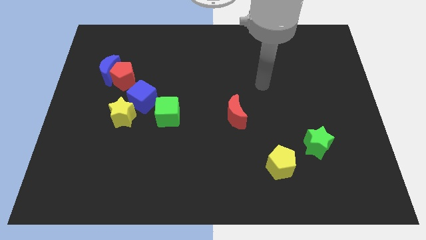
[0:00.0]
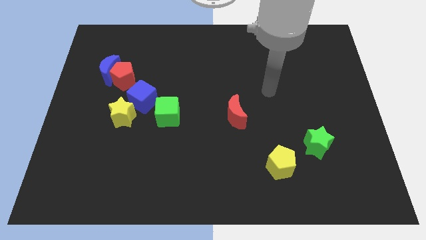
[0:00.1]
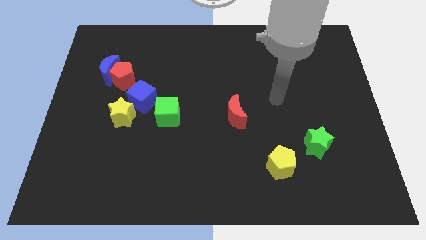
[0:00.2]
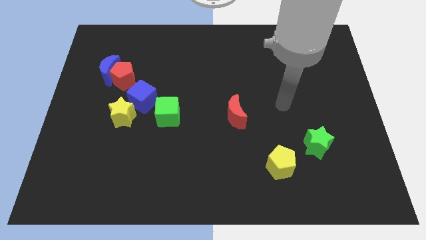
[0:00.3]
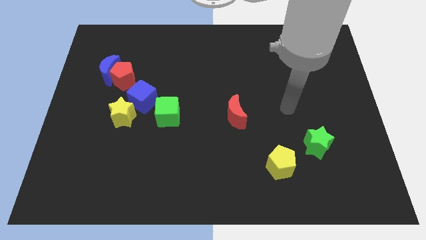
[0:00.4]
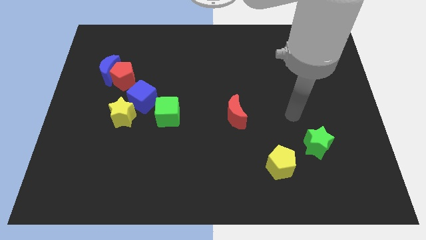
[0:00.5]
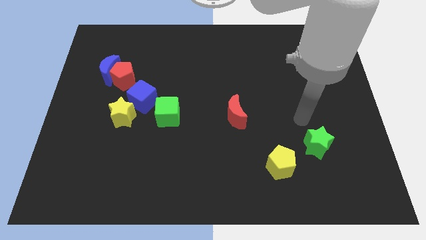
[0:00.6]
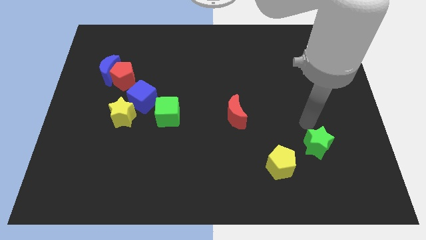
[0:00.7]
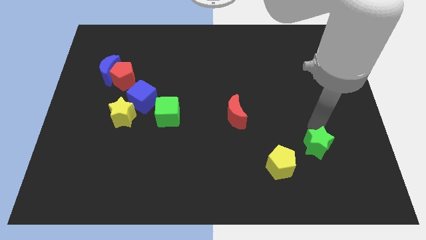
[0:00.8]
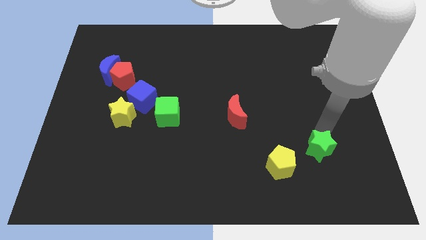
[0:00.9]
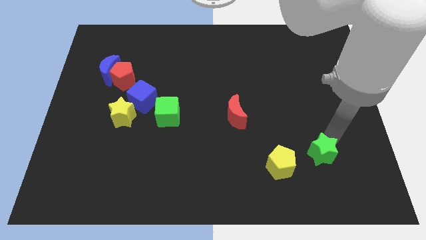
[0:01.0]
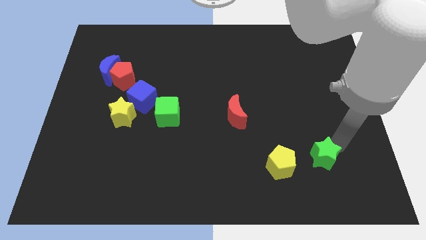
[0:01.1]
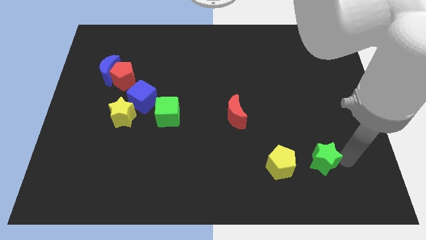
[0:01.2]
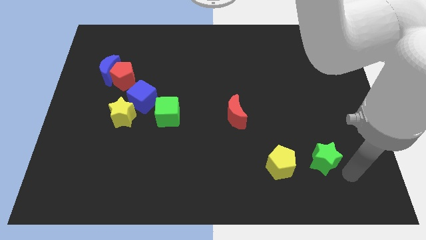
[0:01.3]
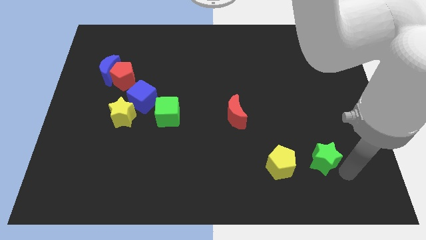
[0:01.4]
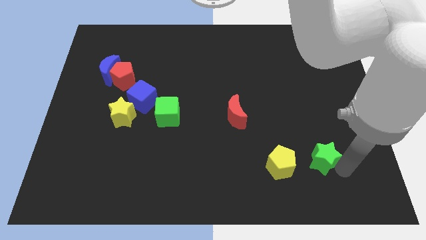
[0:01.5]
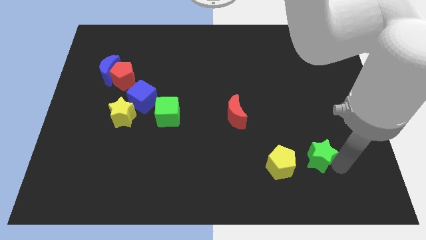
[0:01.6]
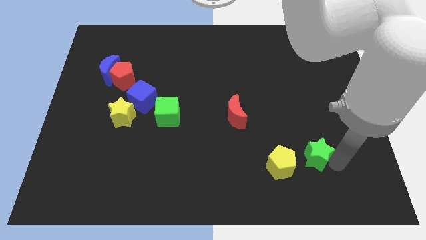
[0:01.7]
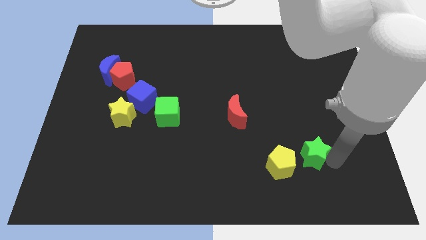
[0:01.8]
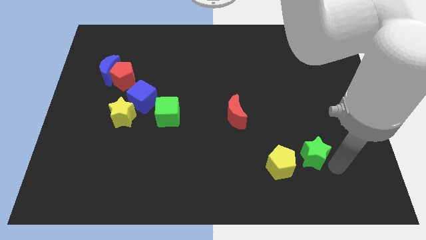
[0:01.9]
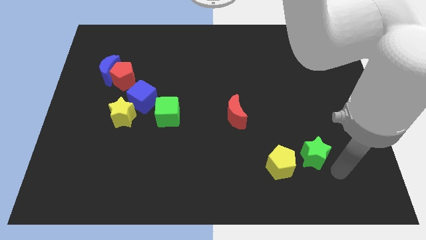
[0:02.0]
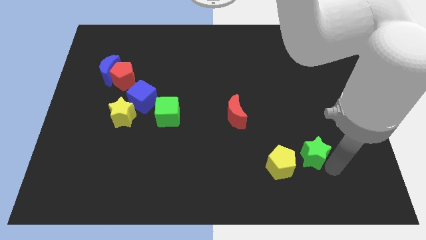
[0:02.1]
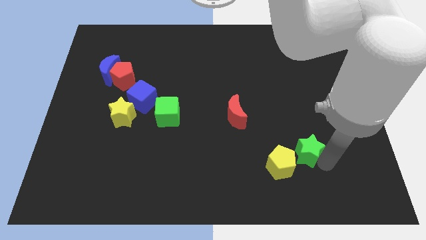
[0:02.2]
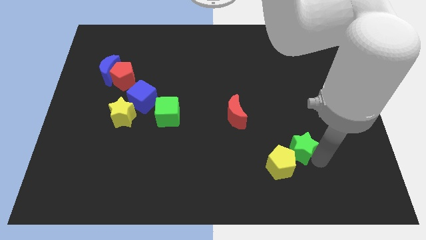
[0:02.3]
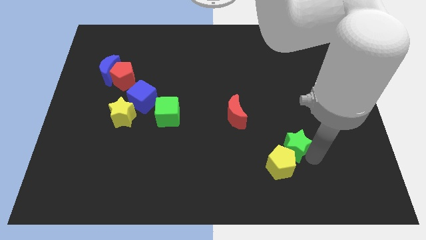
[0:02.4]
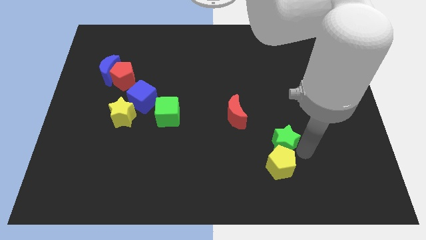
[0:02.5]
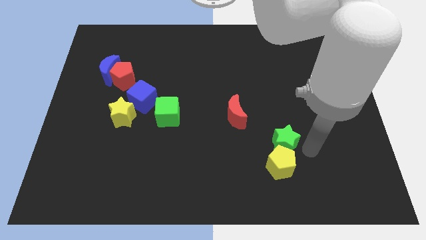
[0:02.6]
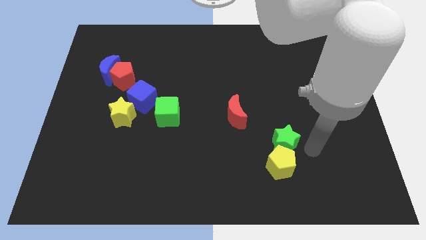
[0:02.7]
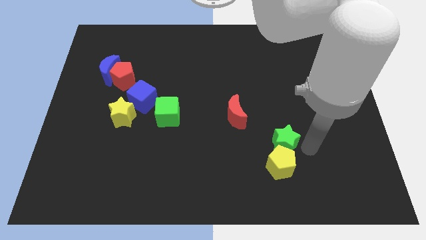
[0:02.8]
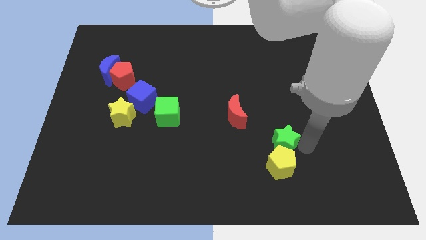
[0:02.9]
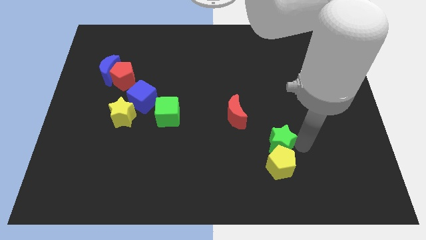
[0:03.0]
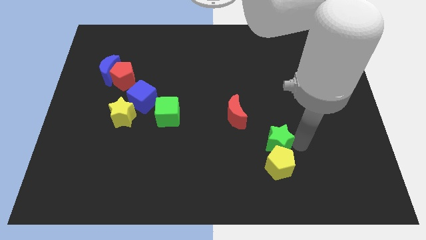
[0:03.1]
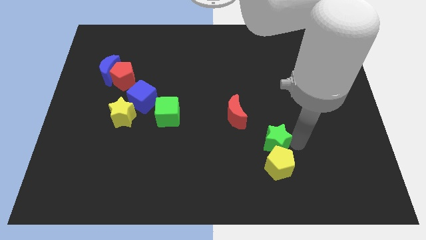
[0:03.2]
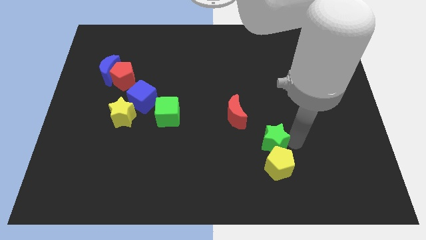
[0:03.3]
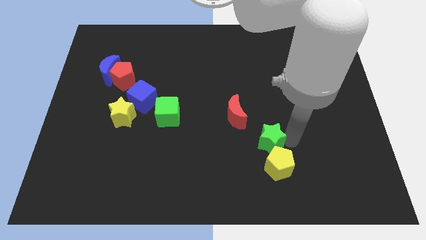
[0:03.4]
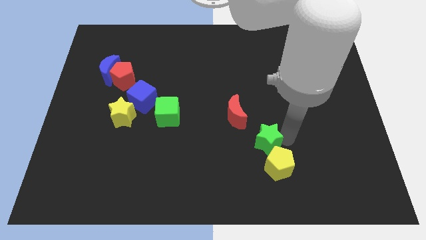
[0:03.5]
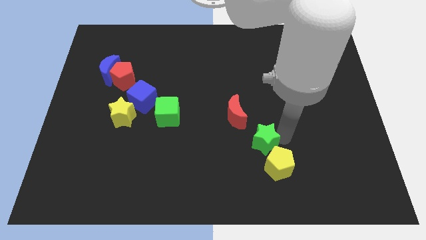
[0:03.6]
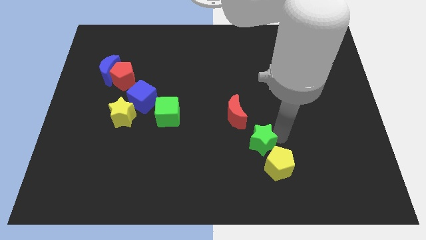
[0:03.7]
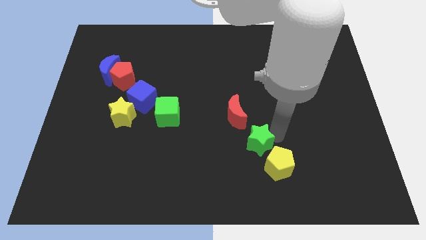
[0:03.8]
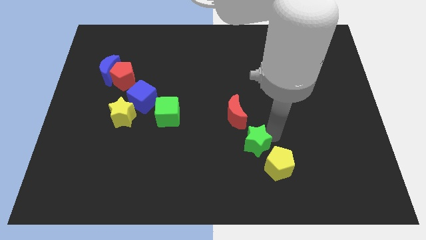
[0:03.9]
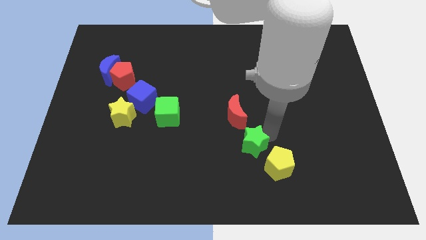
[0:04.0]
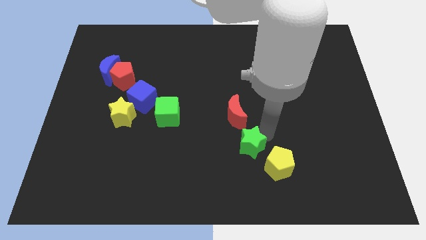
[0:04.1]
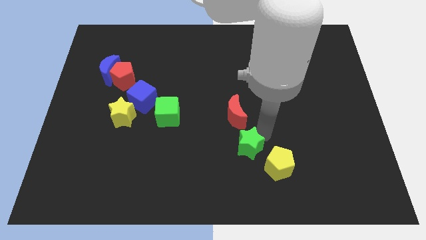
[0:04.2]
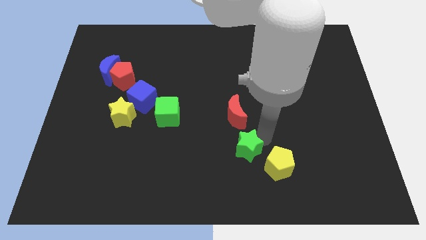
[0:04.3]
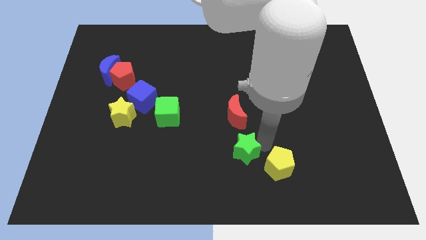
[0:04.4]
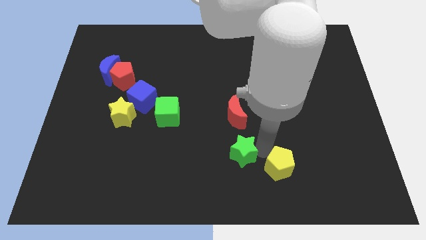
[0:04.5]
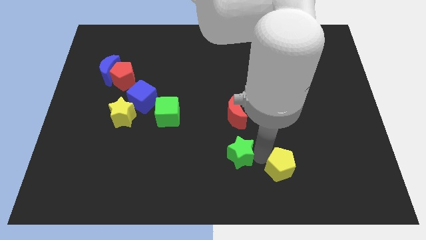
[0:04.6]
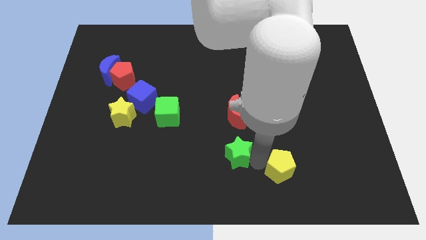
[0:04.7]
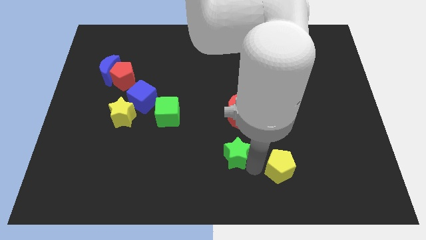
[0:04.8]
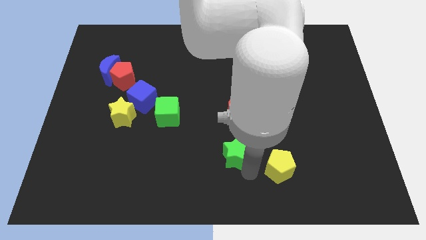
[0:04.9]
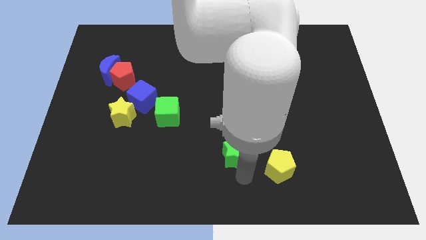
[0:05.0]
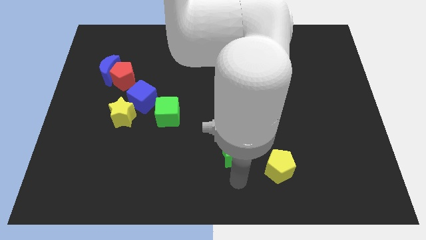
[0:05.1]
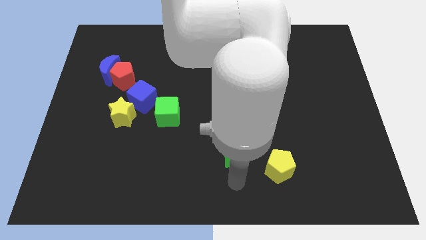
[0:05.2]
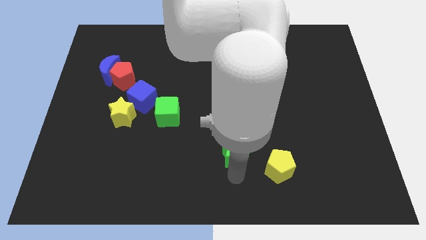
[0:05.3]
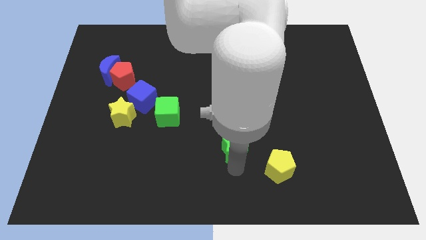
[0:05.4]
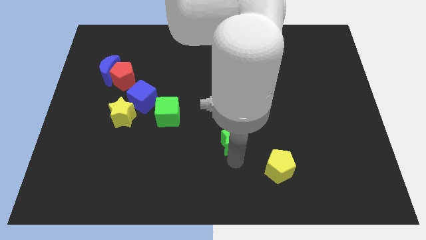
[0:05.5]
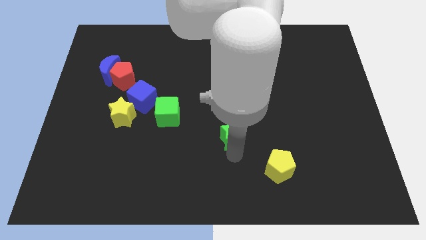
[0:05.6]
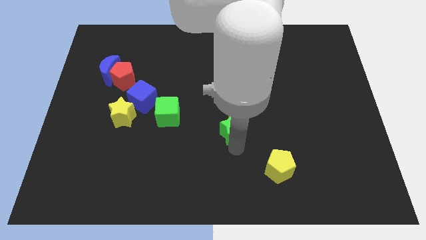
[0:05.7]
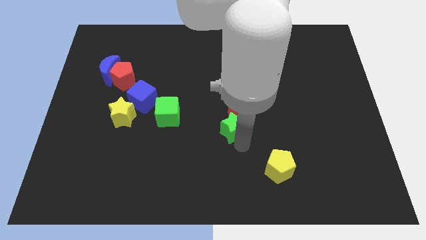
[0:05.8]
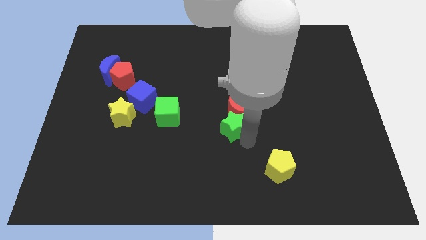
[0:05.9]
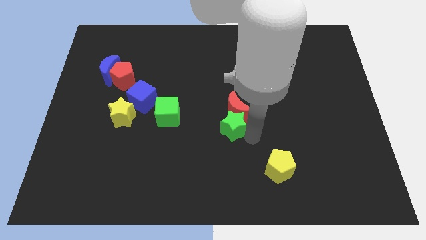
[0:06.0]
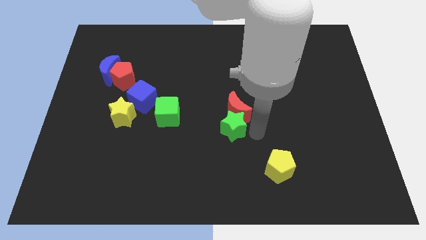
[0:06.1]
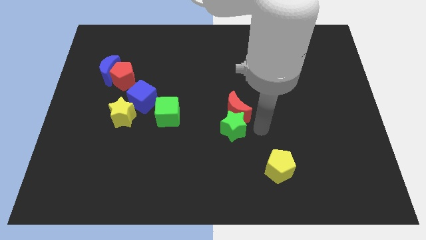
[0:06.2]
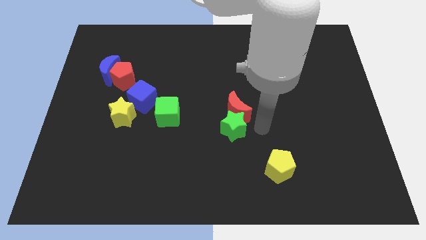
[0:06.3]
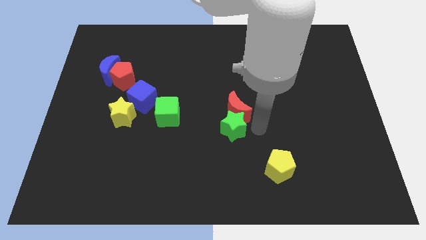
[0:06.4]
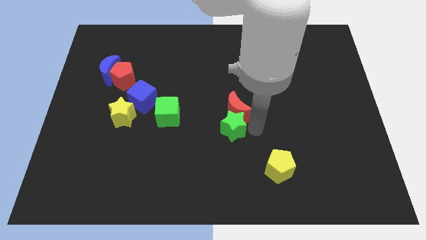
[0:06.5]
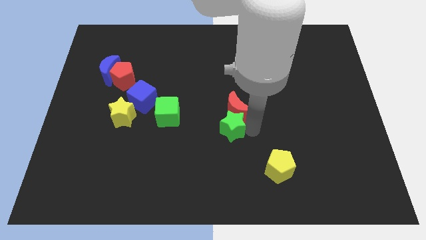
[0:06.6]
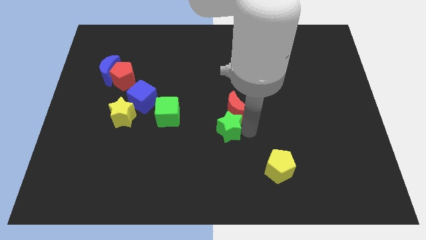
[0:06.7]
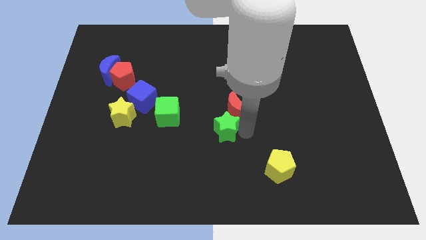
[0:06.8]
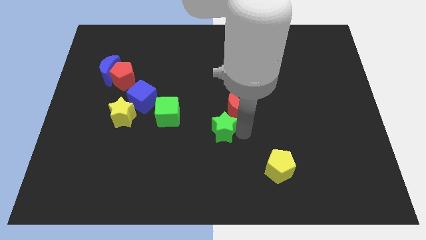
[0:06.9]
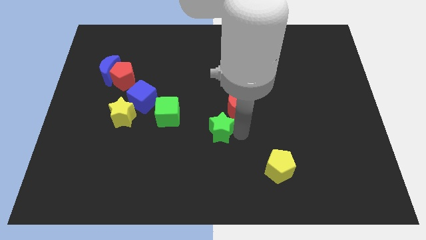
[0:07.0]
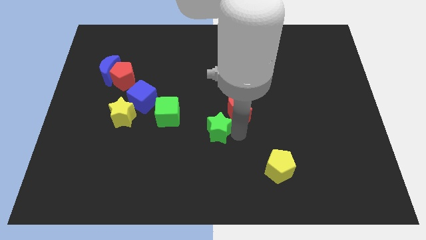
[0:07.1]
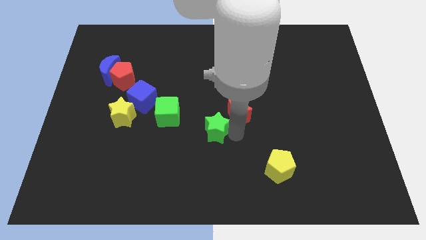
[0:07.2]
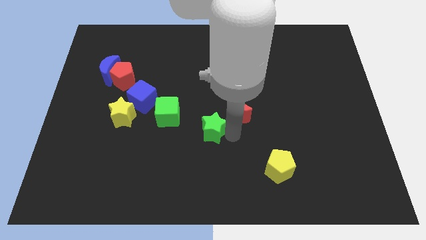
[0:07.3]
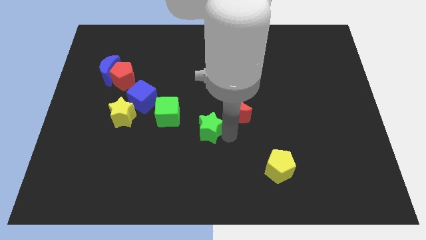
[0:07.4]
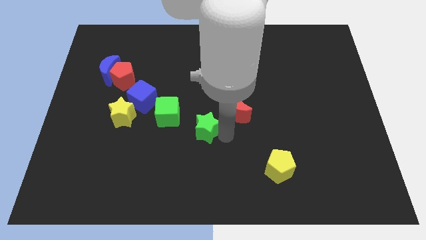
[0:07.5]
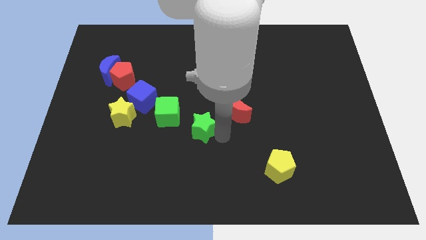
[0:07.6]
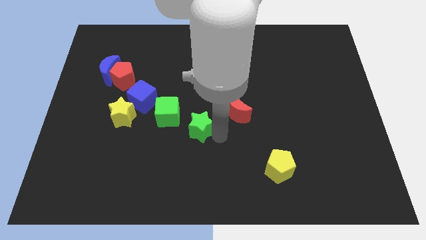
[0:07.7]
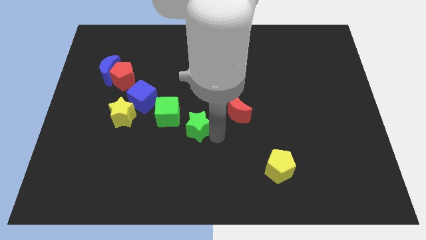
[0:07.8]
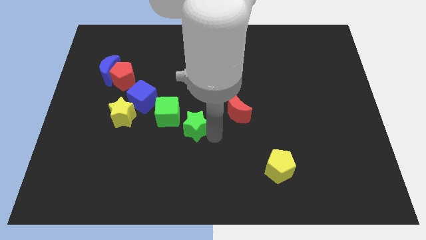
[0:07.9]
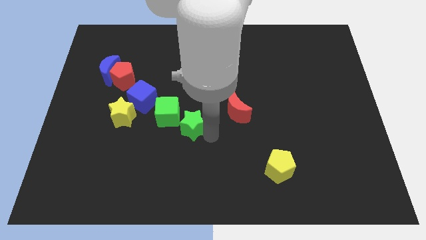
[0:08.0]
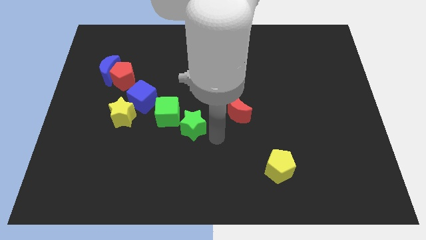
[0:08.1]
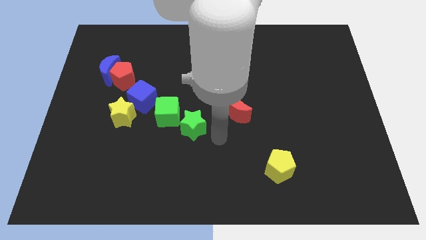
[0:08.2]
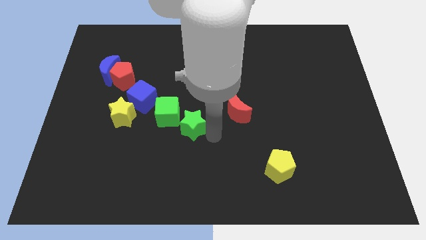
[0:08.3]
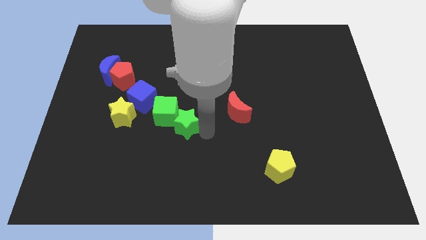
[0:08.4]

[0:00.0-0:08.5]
put the green star to the green cube
